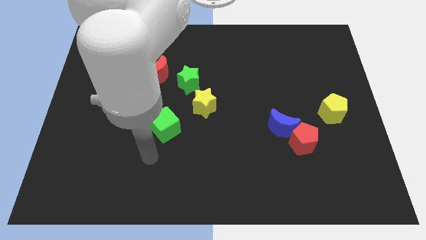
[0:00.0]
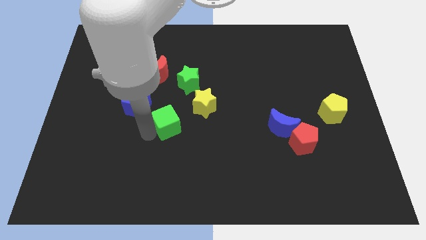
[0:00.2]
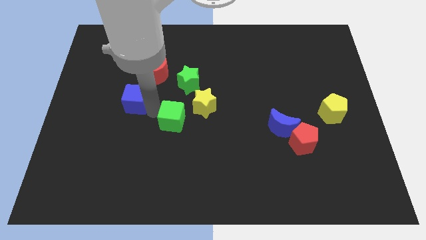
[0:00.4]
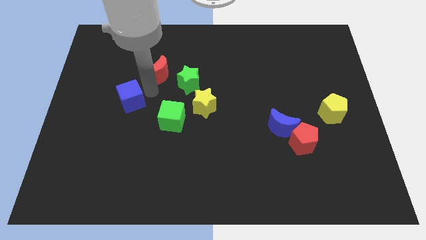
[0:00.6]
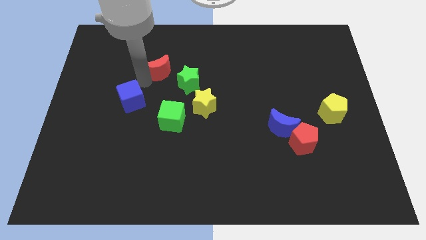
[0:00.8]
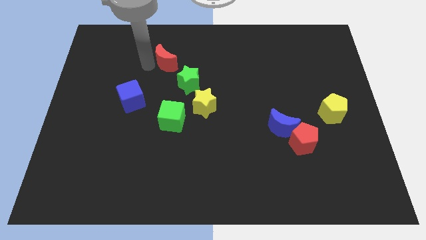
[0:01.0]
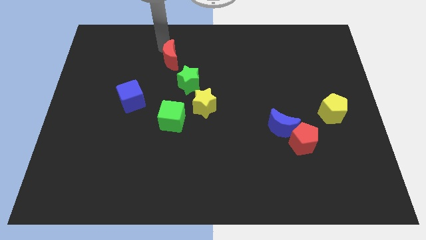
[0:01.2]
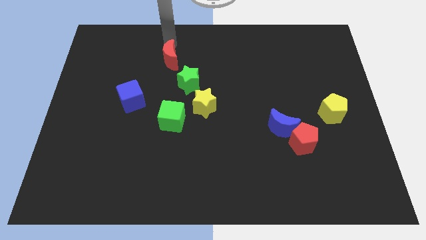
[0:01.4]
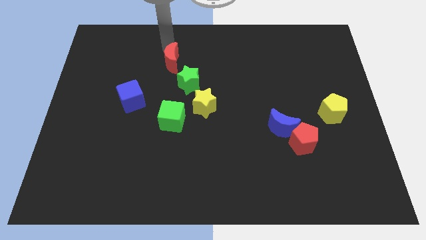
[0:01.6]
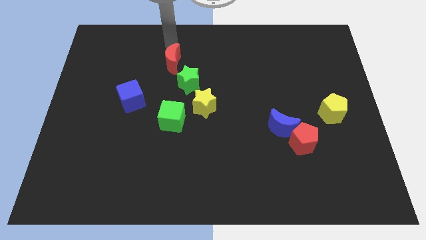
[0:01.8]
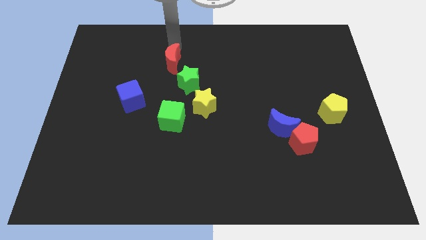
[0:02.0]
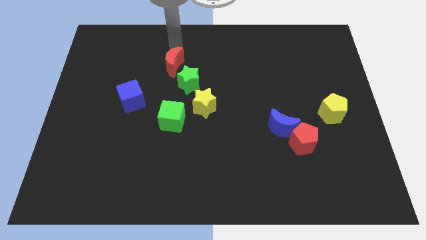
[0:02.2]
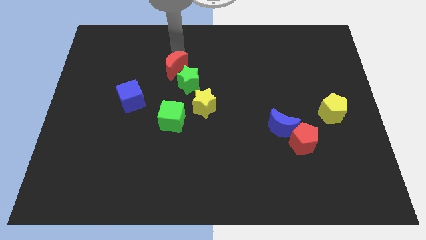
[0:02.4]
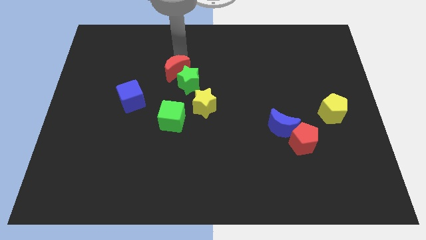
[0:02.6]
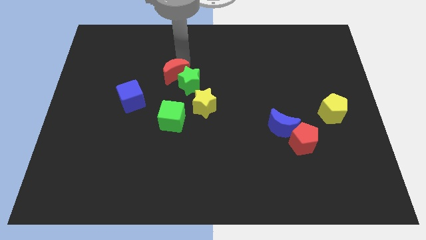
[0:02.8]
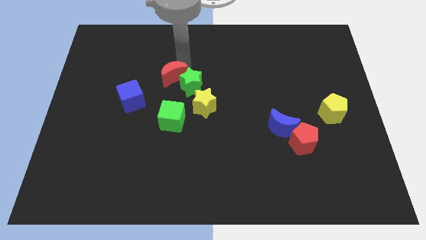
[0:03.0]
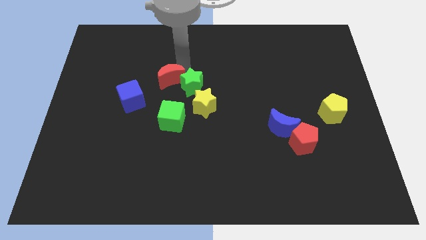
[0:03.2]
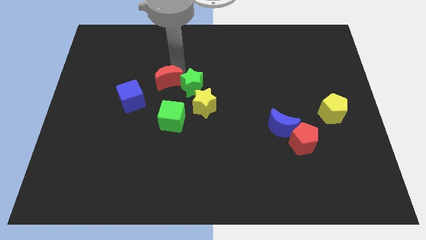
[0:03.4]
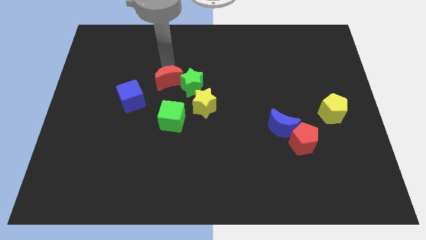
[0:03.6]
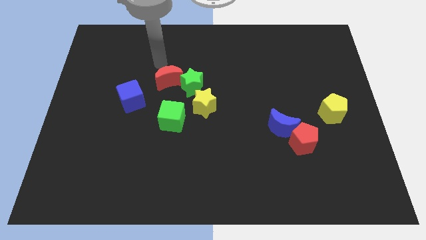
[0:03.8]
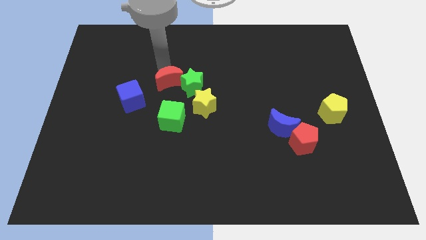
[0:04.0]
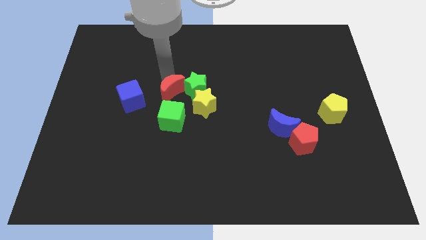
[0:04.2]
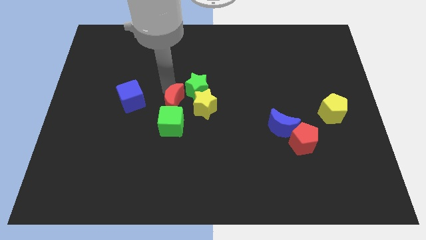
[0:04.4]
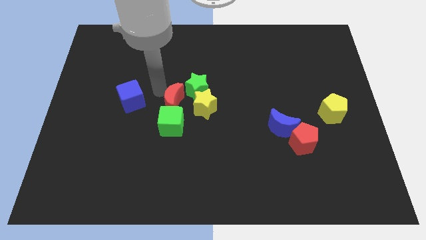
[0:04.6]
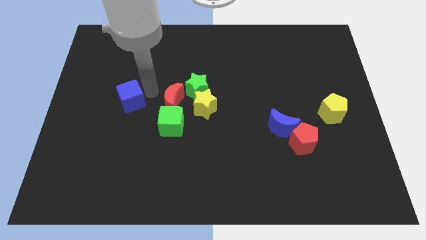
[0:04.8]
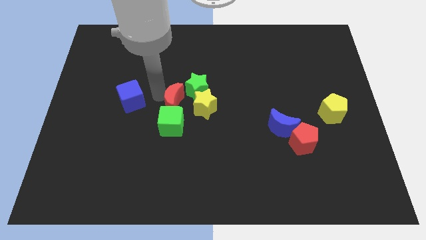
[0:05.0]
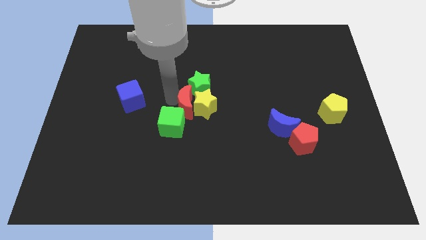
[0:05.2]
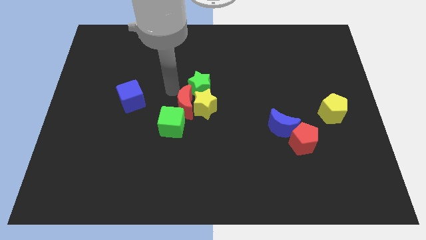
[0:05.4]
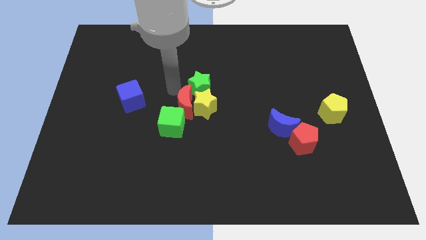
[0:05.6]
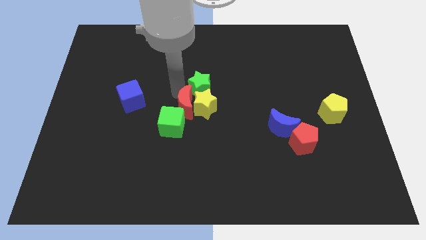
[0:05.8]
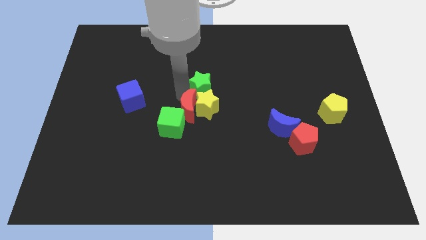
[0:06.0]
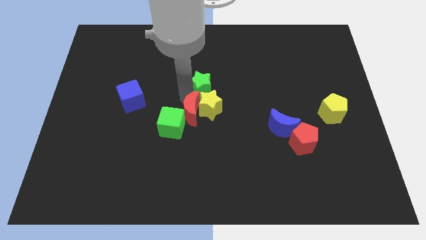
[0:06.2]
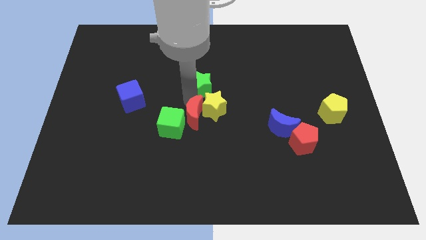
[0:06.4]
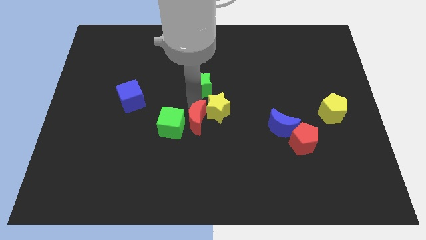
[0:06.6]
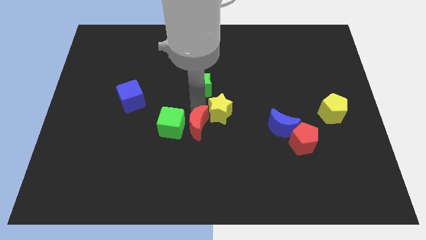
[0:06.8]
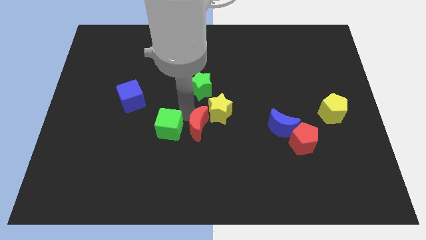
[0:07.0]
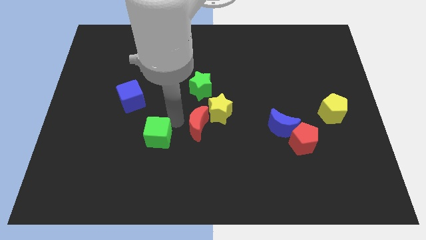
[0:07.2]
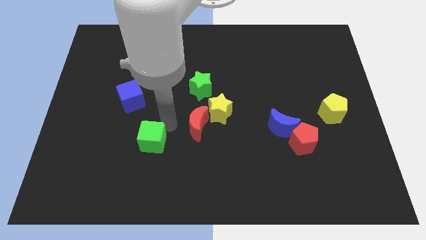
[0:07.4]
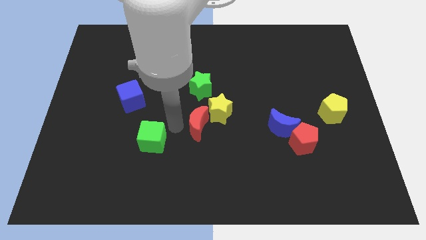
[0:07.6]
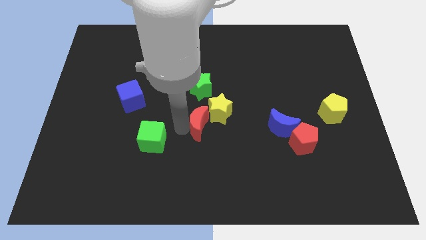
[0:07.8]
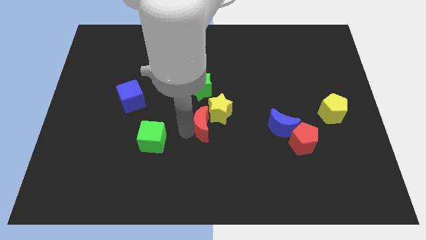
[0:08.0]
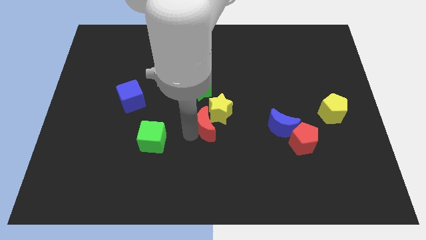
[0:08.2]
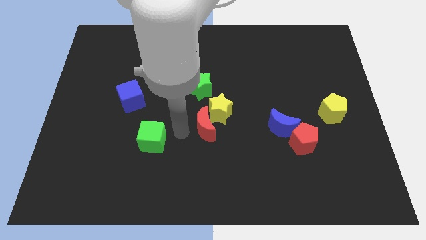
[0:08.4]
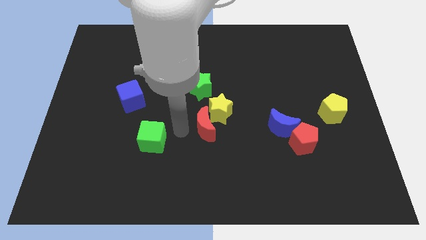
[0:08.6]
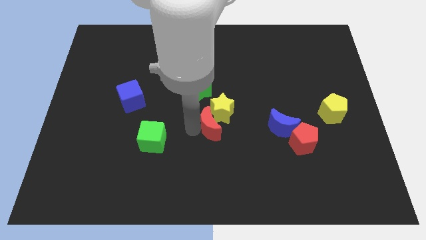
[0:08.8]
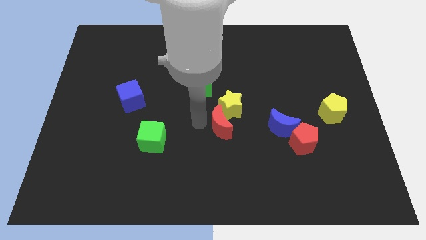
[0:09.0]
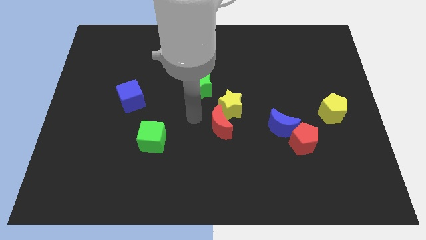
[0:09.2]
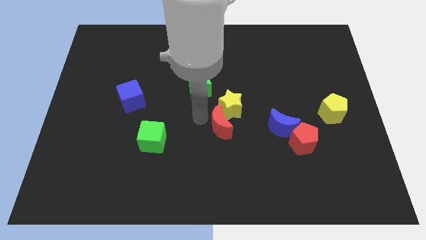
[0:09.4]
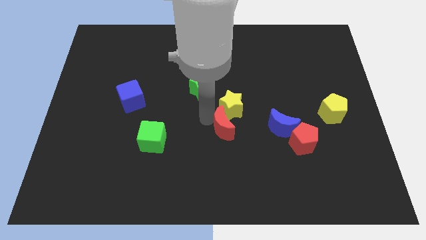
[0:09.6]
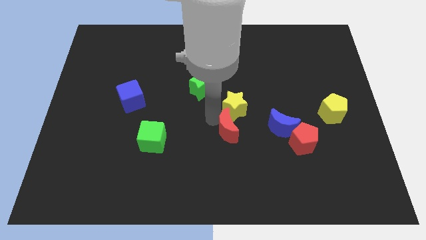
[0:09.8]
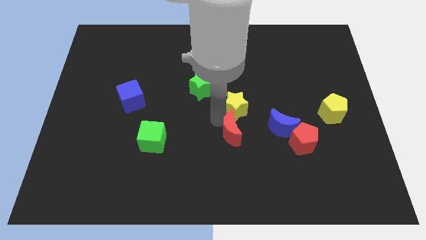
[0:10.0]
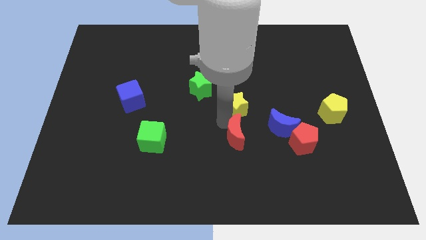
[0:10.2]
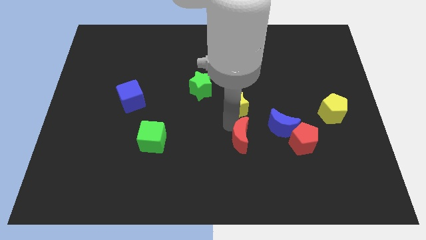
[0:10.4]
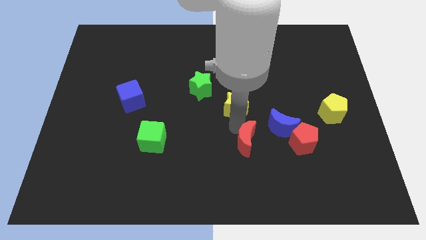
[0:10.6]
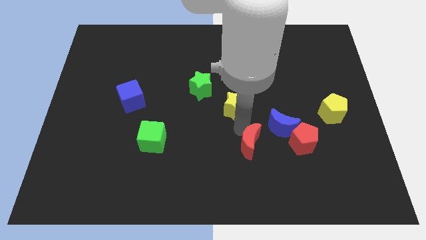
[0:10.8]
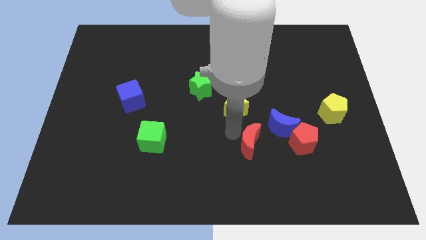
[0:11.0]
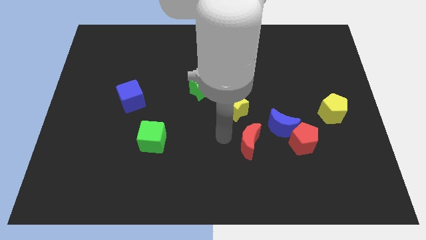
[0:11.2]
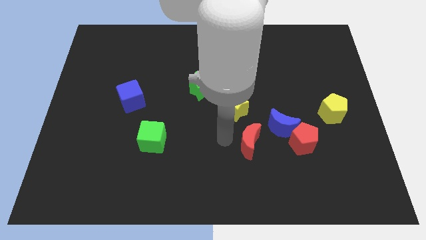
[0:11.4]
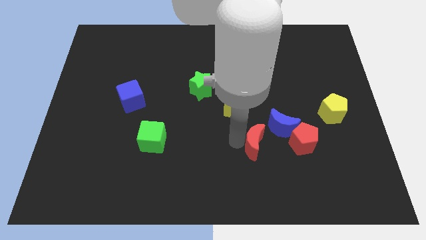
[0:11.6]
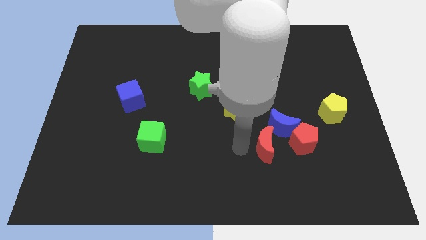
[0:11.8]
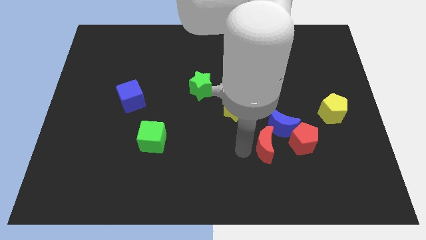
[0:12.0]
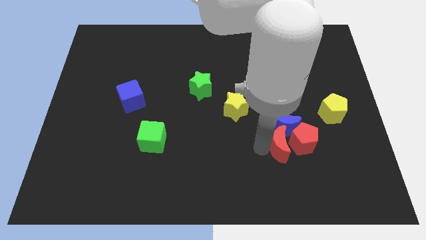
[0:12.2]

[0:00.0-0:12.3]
push the red moon next to the red pentagon

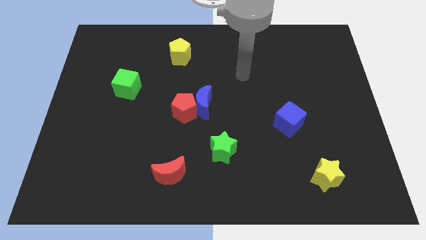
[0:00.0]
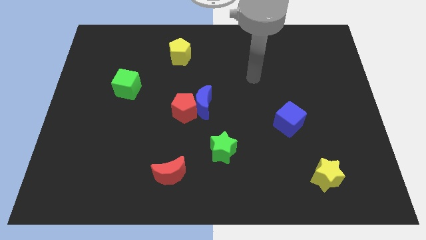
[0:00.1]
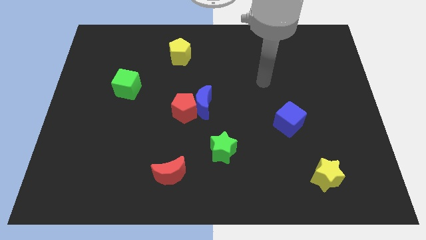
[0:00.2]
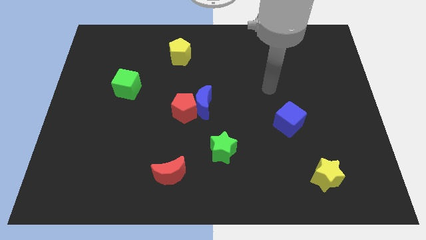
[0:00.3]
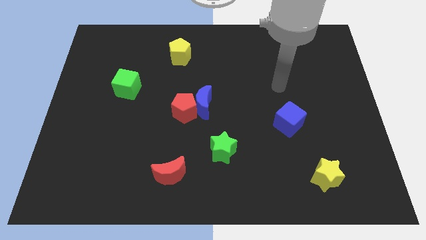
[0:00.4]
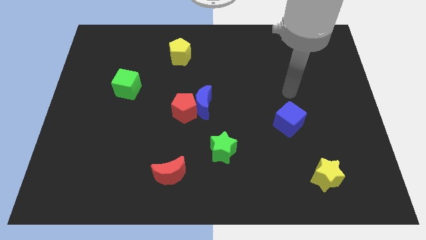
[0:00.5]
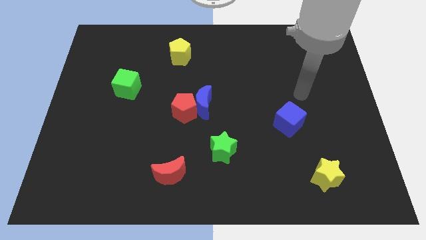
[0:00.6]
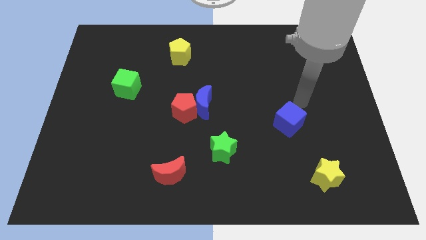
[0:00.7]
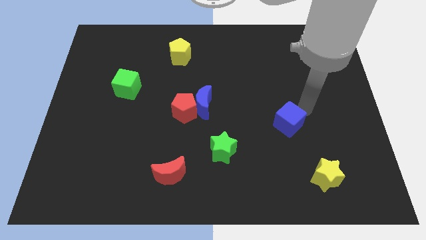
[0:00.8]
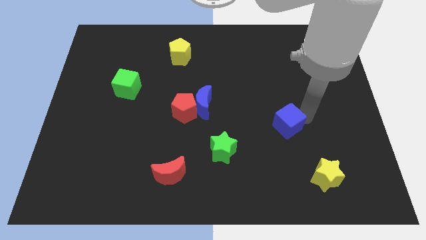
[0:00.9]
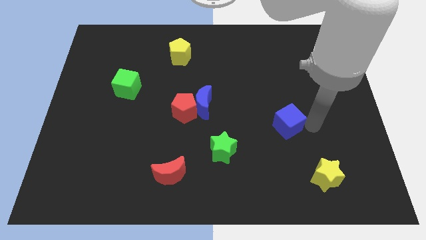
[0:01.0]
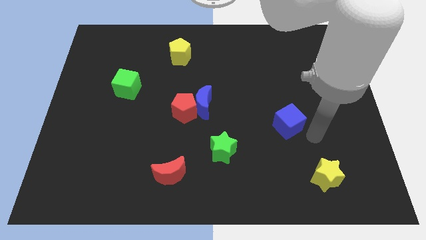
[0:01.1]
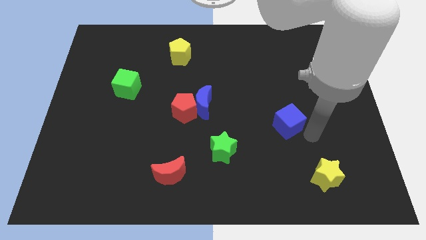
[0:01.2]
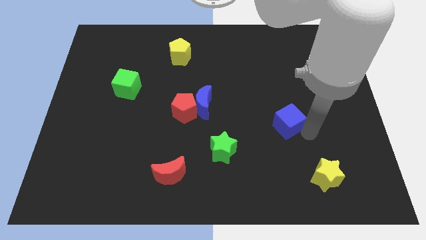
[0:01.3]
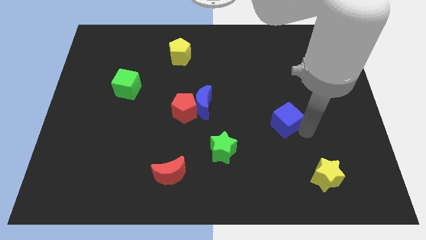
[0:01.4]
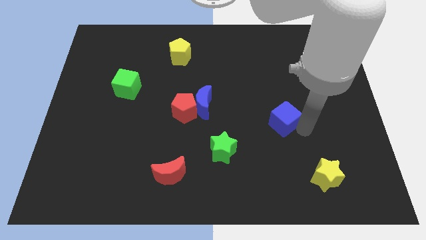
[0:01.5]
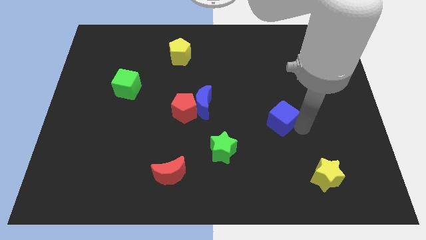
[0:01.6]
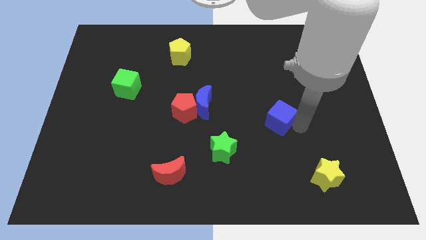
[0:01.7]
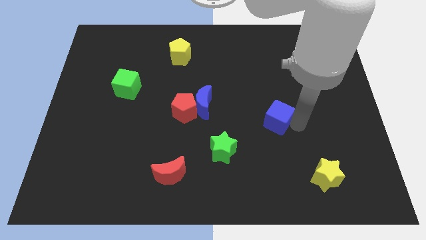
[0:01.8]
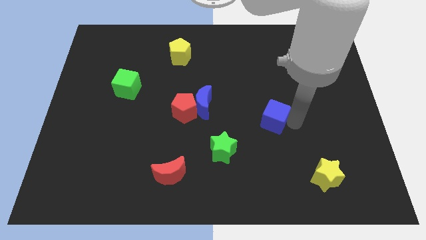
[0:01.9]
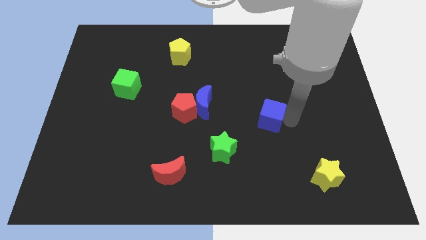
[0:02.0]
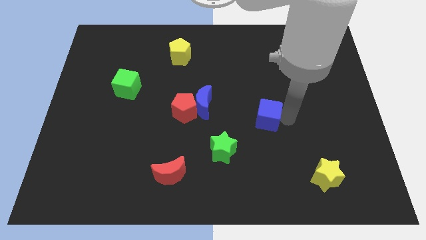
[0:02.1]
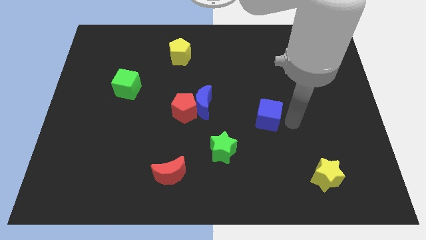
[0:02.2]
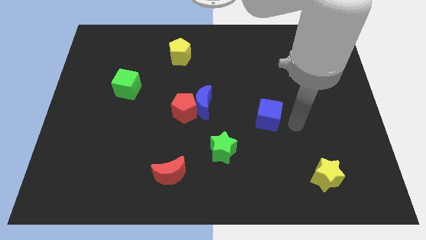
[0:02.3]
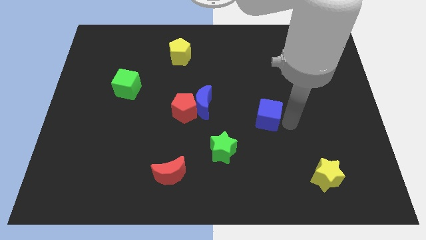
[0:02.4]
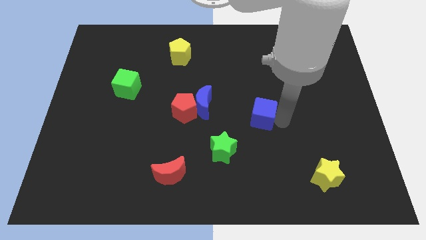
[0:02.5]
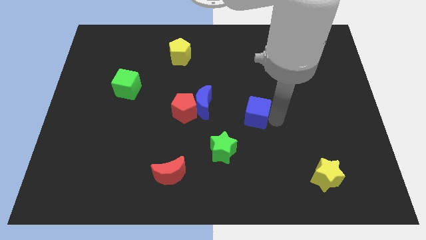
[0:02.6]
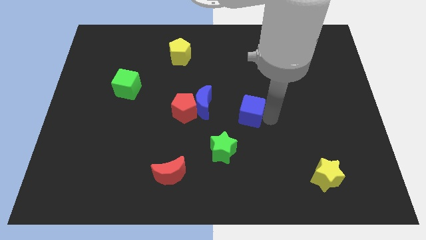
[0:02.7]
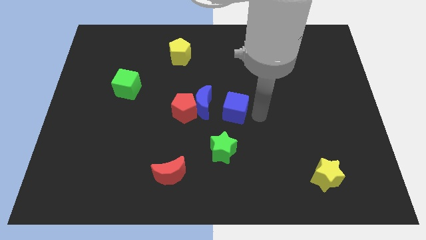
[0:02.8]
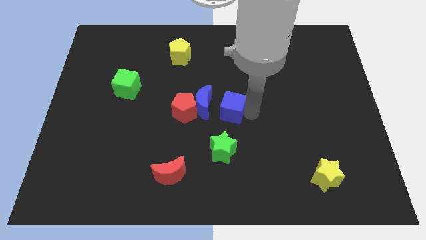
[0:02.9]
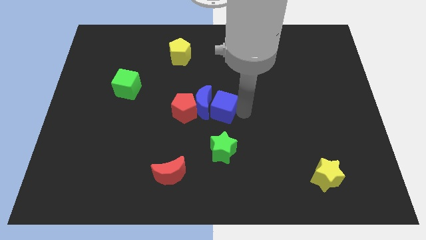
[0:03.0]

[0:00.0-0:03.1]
slide the blue cube next to the blue moon
